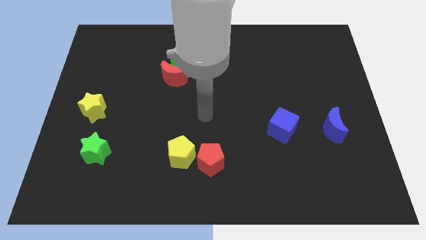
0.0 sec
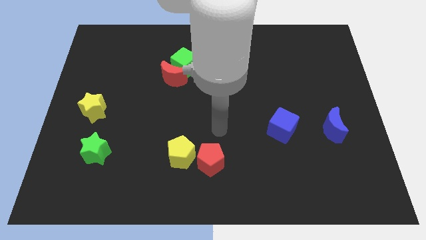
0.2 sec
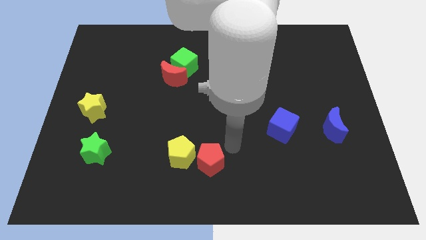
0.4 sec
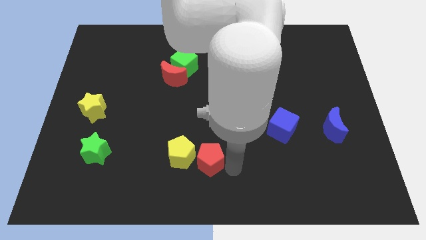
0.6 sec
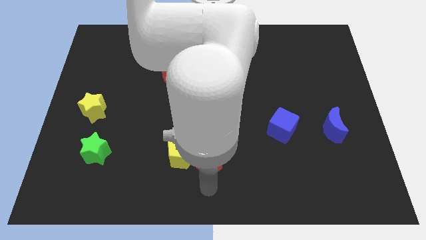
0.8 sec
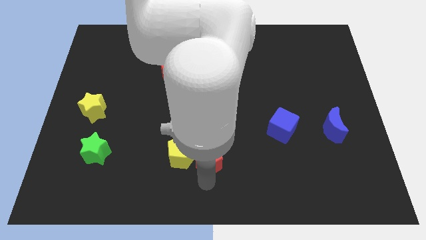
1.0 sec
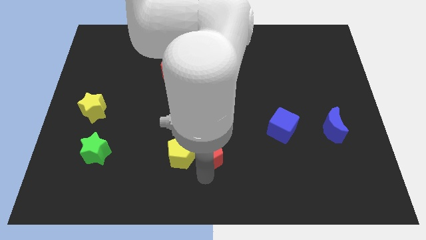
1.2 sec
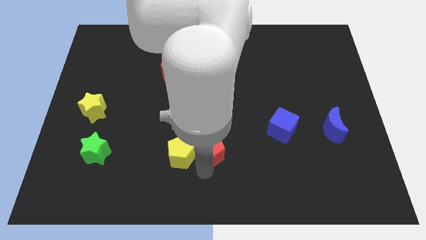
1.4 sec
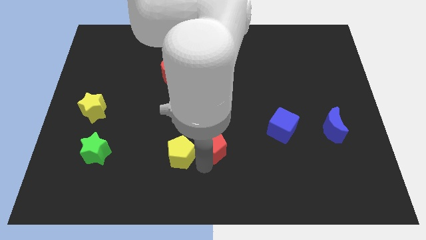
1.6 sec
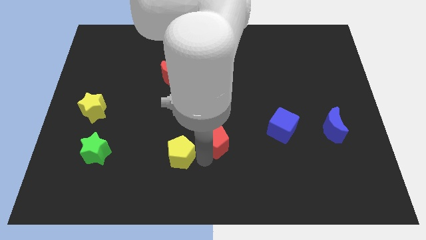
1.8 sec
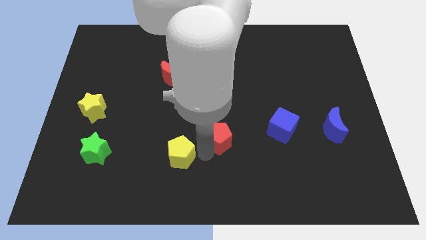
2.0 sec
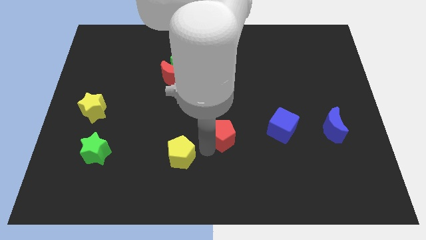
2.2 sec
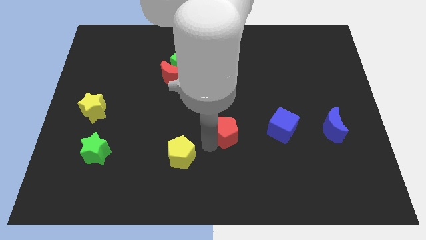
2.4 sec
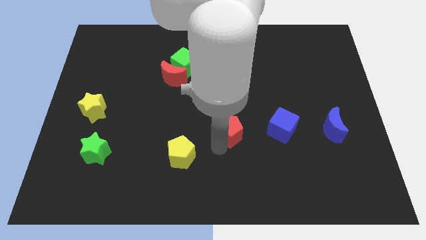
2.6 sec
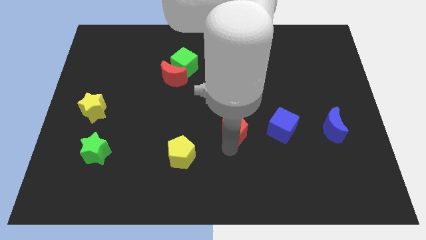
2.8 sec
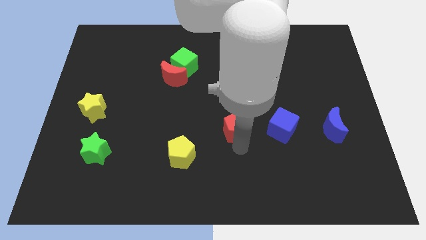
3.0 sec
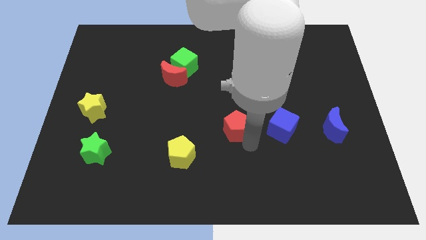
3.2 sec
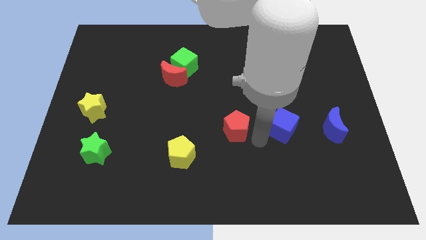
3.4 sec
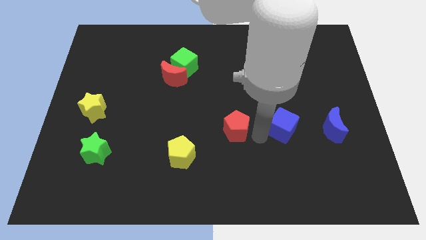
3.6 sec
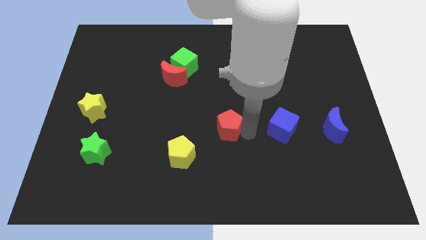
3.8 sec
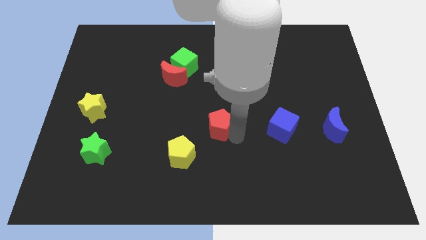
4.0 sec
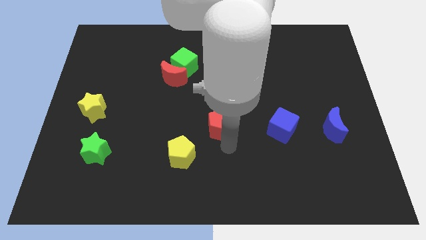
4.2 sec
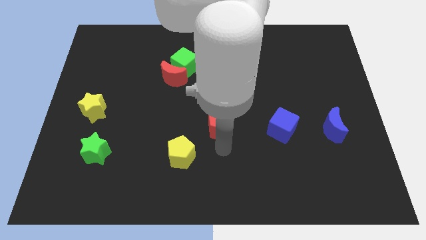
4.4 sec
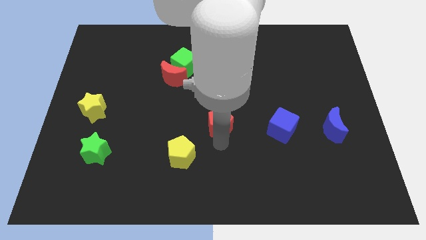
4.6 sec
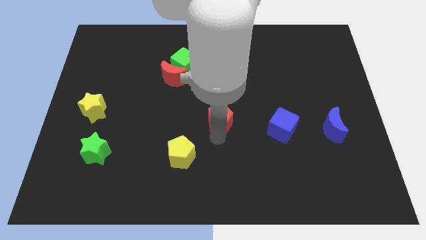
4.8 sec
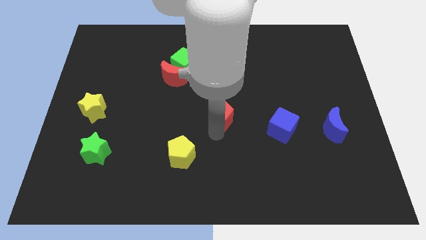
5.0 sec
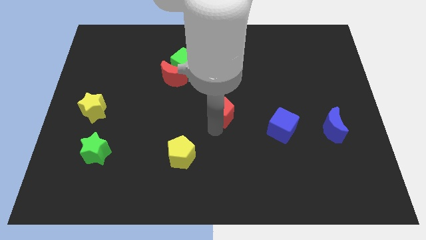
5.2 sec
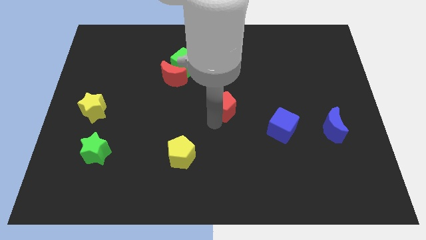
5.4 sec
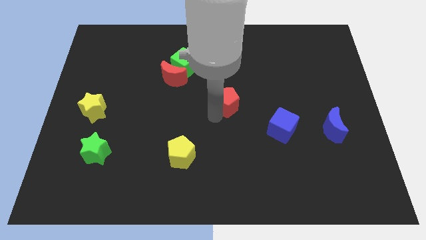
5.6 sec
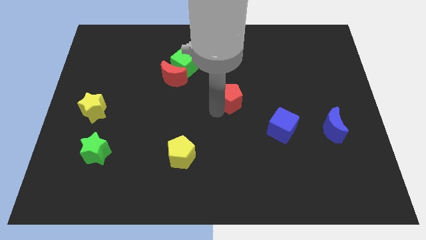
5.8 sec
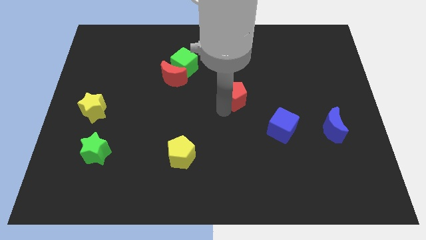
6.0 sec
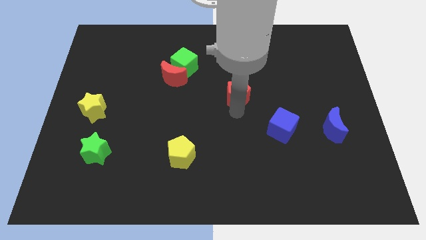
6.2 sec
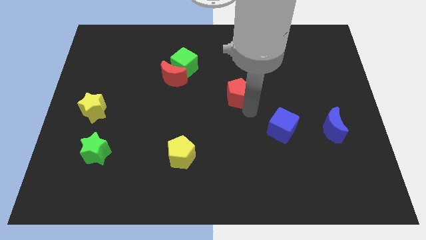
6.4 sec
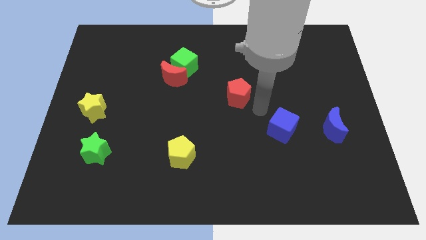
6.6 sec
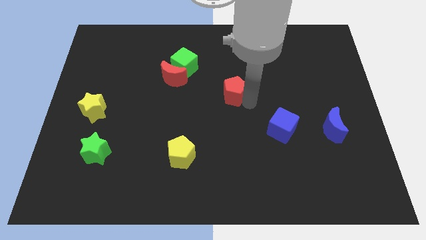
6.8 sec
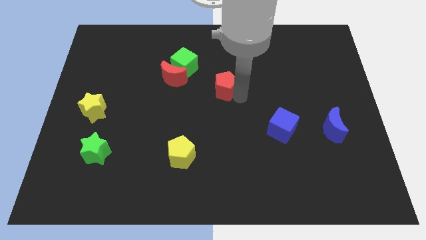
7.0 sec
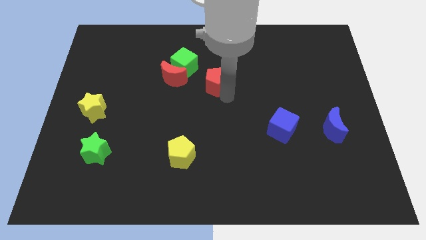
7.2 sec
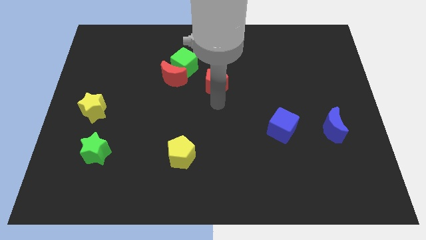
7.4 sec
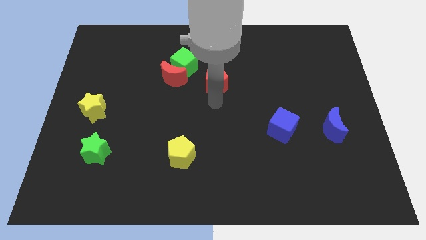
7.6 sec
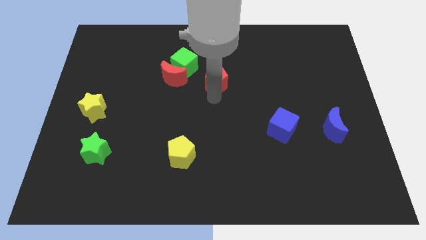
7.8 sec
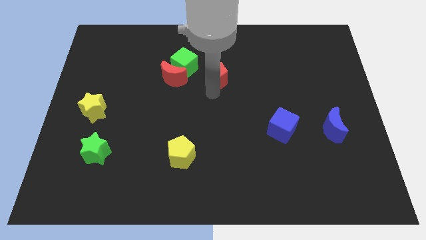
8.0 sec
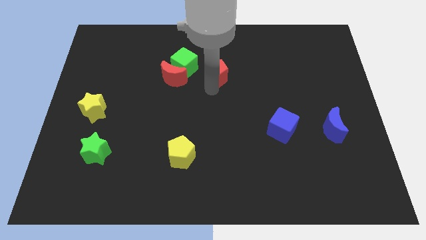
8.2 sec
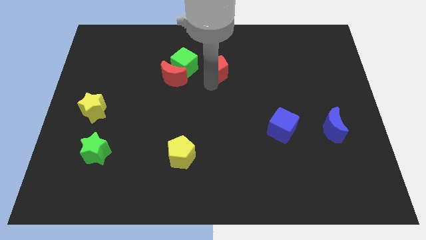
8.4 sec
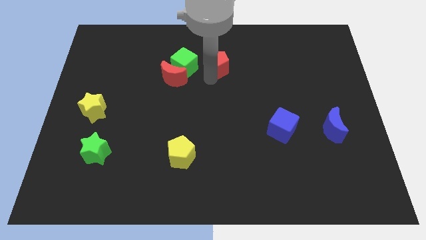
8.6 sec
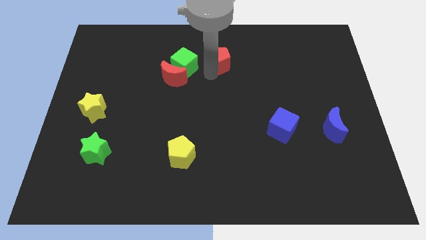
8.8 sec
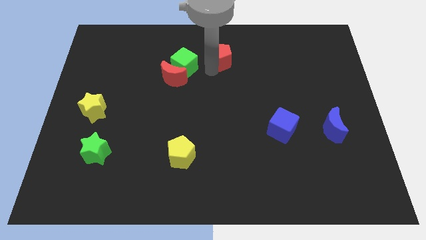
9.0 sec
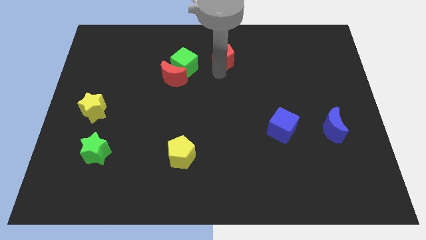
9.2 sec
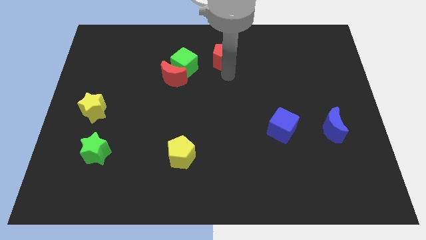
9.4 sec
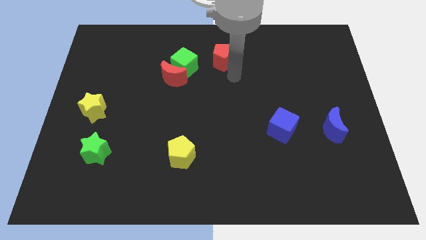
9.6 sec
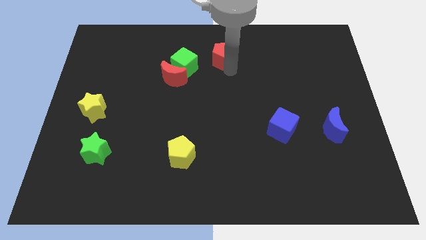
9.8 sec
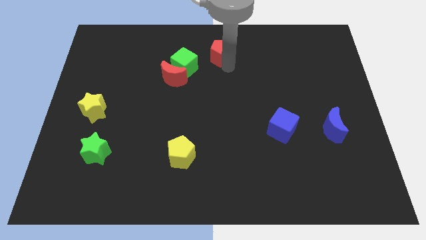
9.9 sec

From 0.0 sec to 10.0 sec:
slide the red pentagon to the towards your base

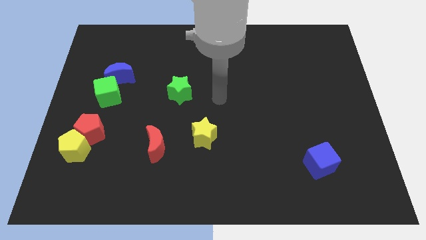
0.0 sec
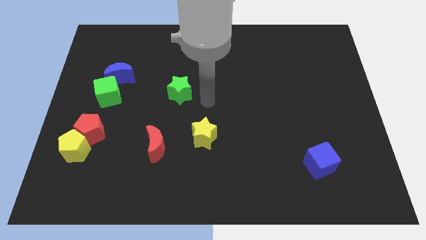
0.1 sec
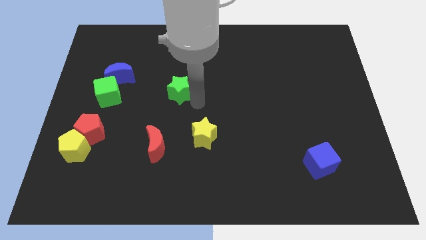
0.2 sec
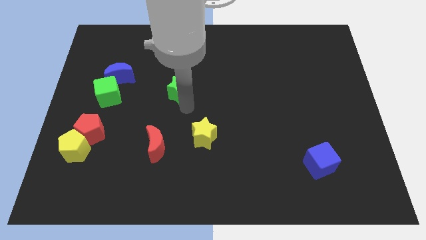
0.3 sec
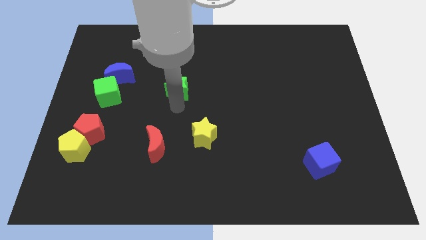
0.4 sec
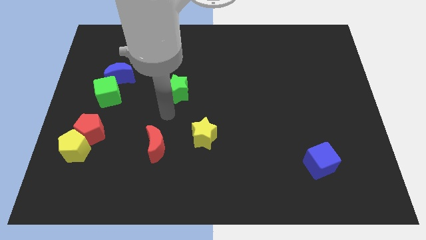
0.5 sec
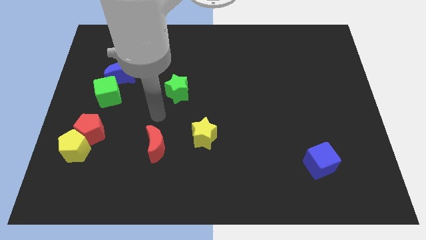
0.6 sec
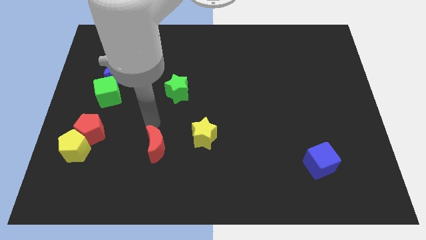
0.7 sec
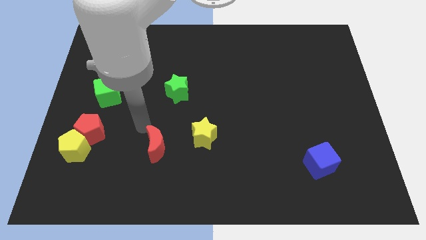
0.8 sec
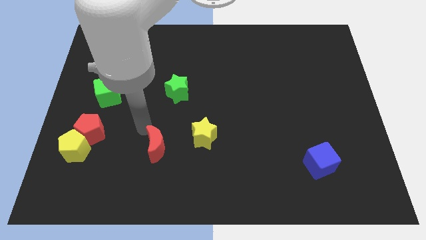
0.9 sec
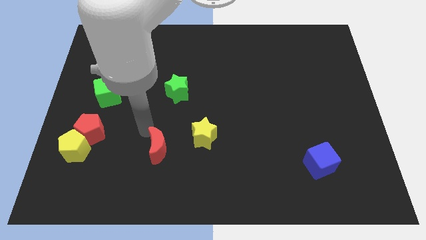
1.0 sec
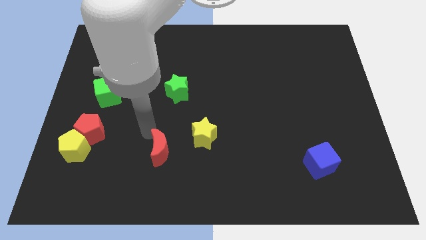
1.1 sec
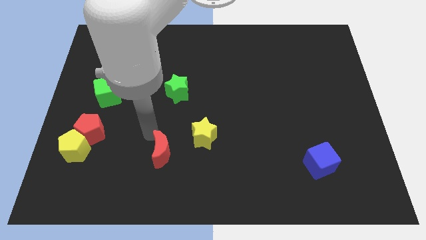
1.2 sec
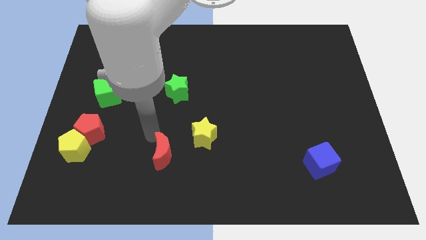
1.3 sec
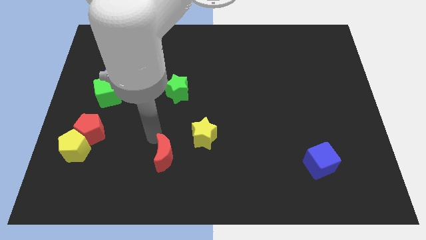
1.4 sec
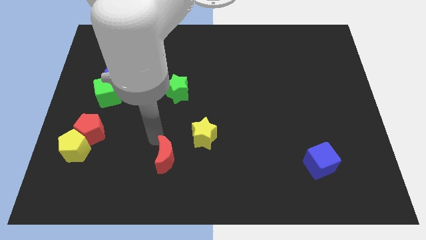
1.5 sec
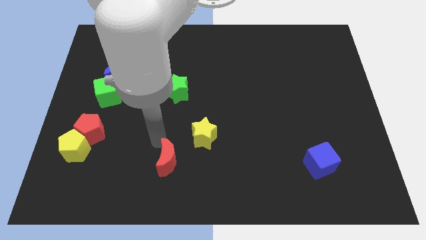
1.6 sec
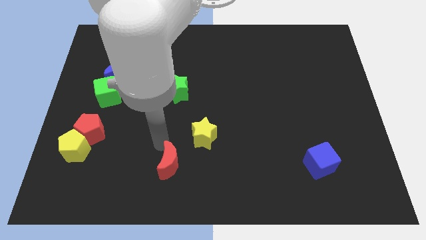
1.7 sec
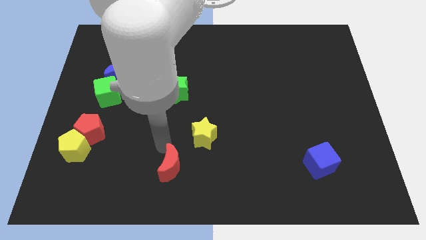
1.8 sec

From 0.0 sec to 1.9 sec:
push the red moon to the bottom

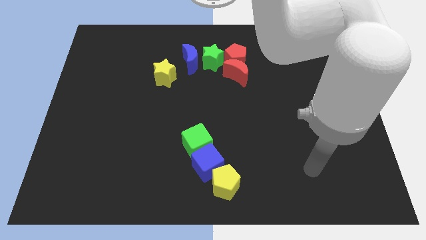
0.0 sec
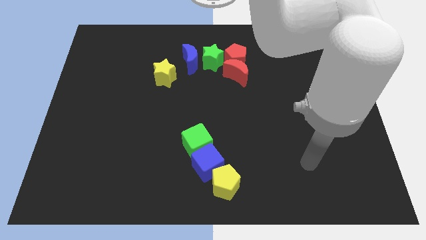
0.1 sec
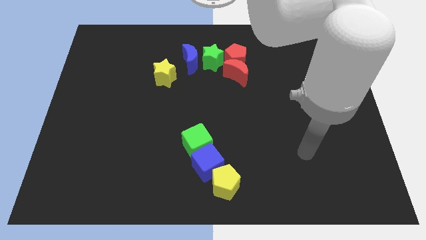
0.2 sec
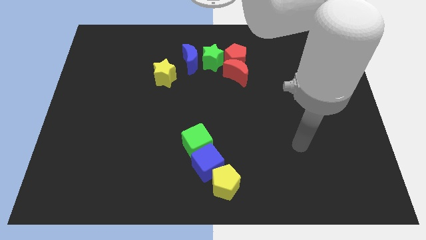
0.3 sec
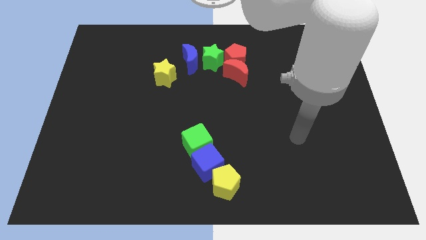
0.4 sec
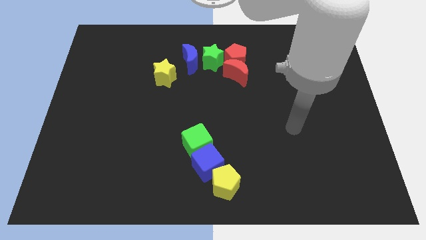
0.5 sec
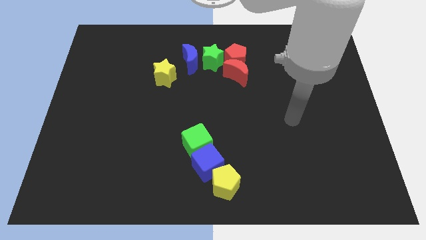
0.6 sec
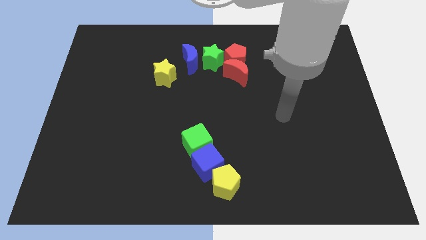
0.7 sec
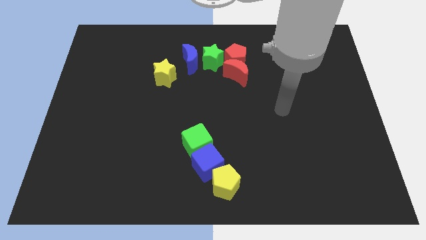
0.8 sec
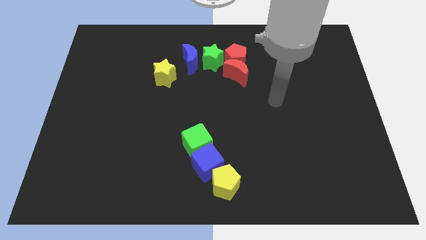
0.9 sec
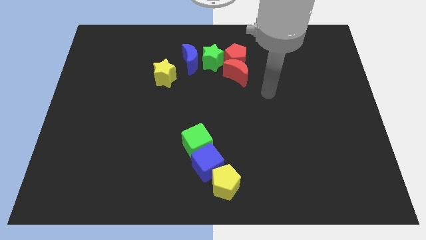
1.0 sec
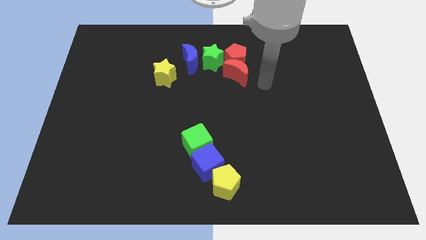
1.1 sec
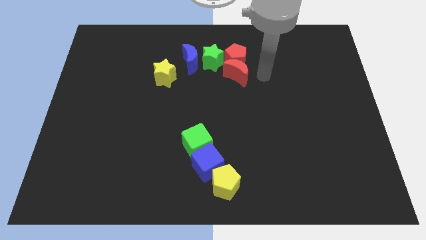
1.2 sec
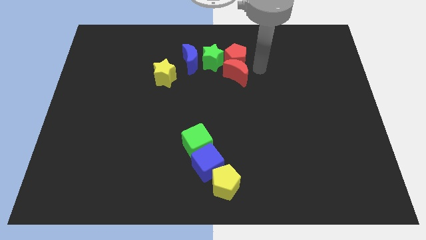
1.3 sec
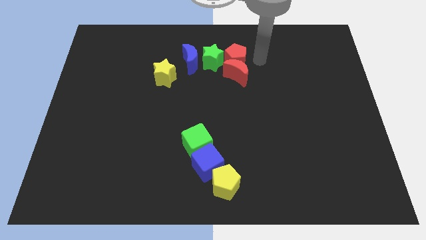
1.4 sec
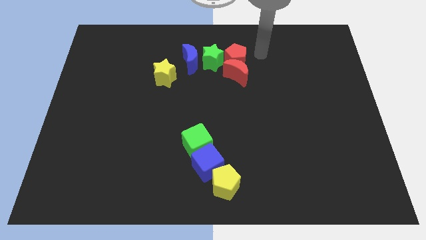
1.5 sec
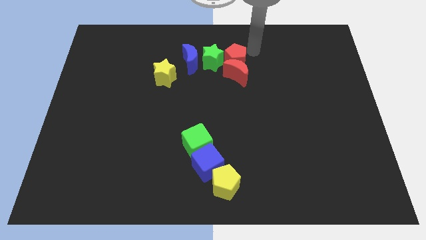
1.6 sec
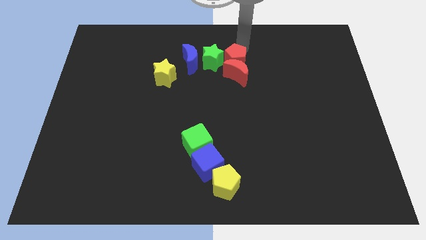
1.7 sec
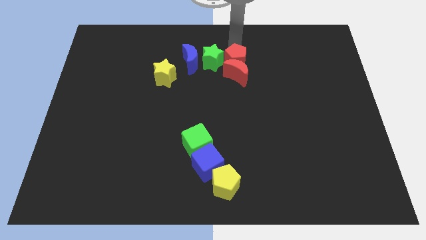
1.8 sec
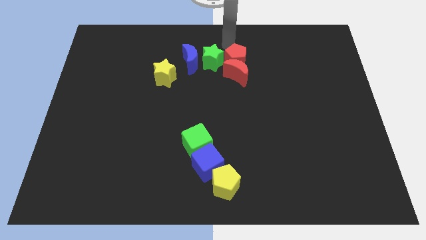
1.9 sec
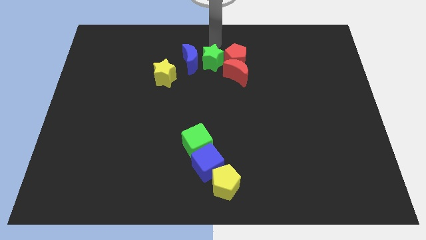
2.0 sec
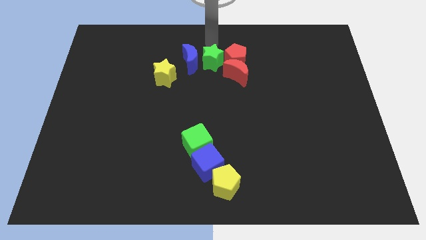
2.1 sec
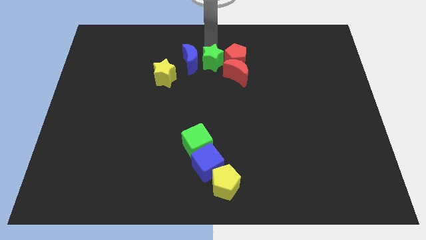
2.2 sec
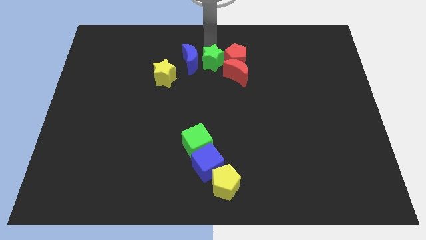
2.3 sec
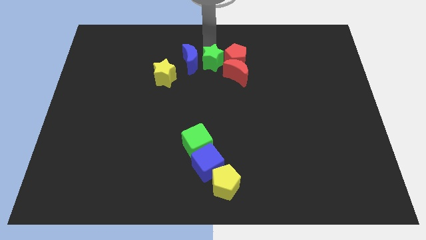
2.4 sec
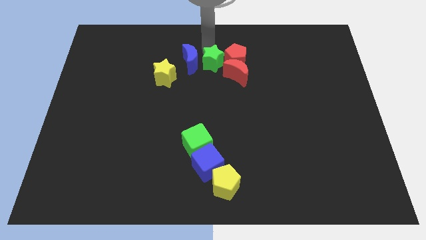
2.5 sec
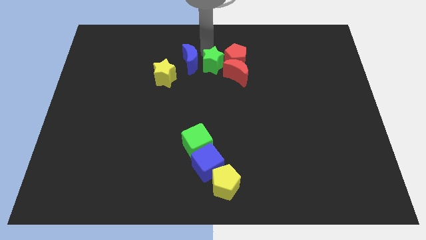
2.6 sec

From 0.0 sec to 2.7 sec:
push the green star to the center of the board
